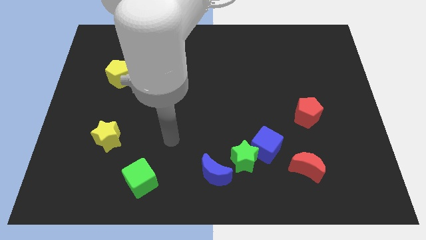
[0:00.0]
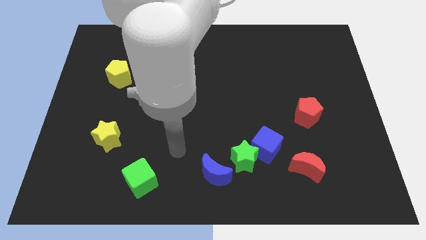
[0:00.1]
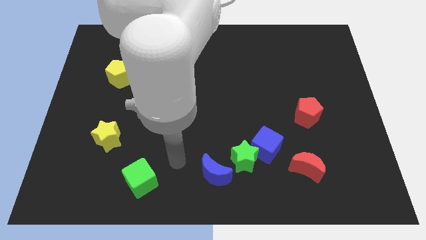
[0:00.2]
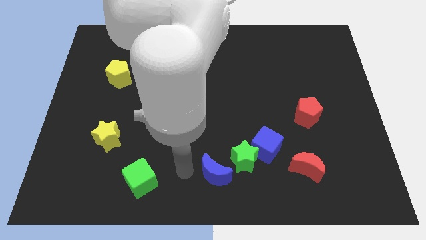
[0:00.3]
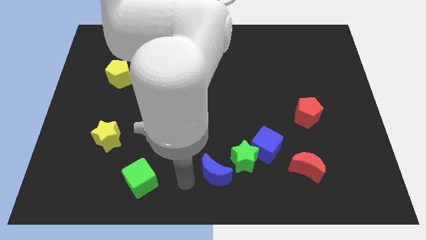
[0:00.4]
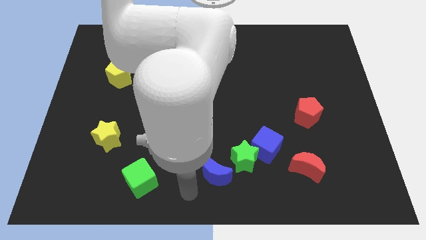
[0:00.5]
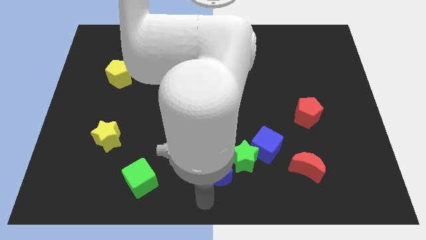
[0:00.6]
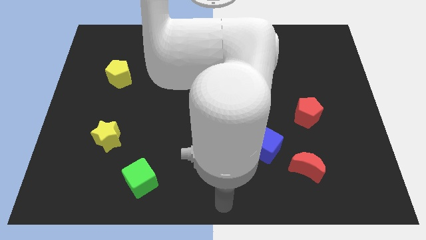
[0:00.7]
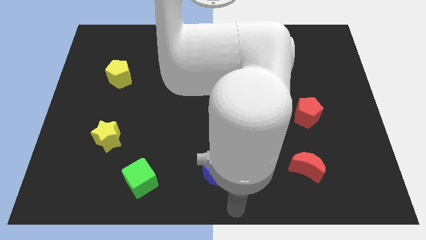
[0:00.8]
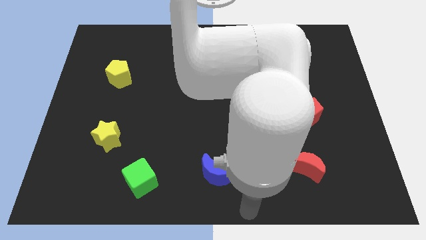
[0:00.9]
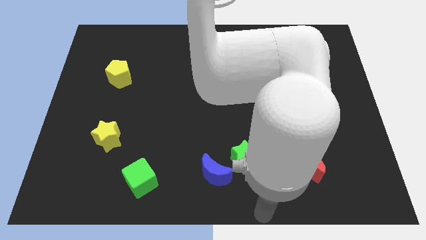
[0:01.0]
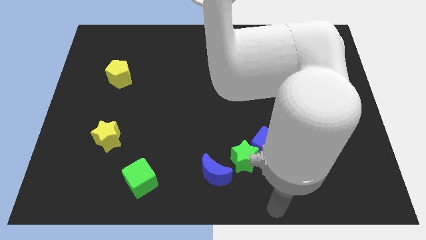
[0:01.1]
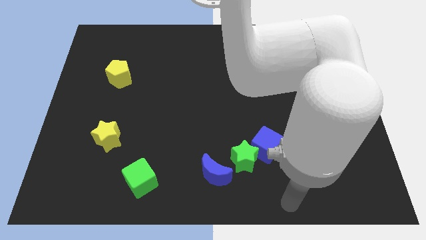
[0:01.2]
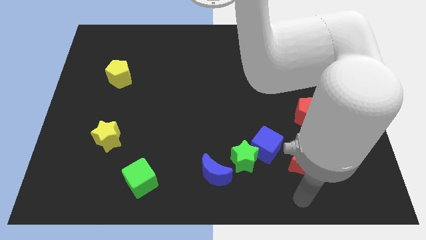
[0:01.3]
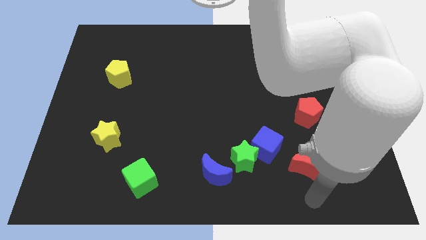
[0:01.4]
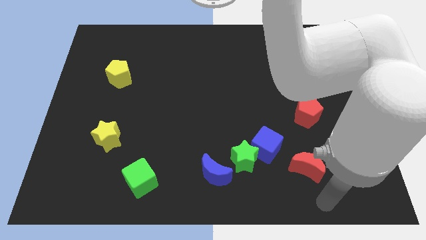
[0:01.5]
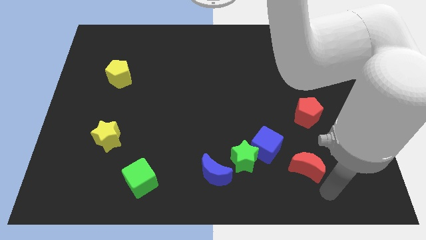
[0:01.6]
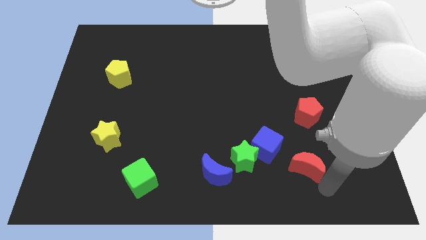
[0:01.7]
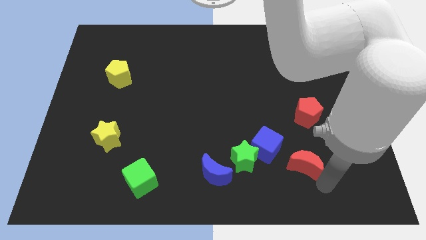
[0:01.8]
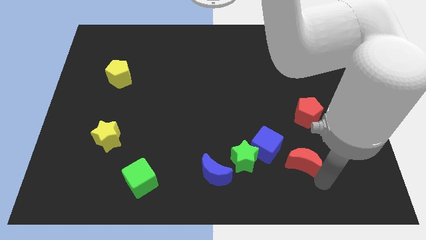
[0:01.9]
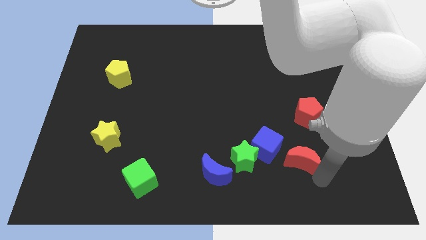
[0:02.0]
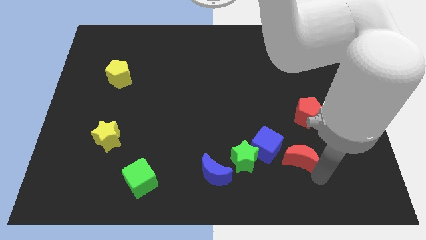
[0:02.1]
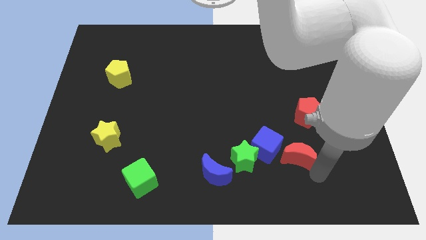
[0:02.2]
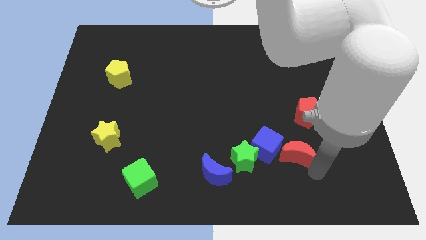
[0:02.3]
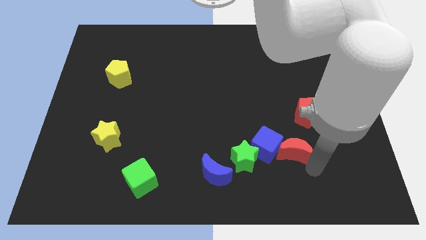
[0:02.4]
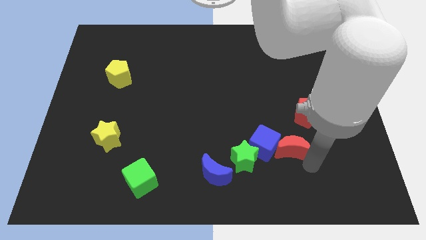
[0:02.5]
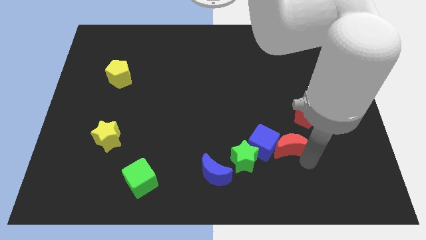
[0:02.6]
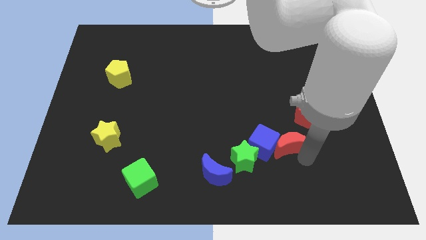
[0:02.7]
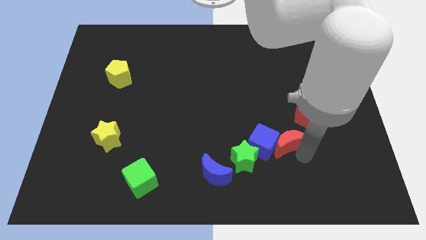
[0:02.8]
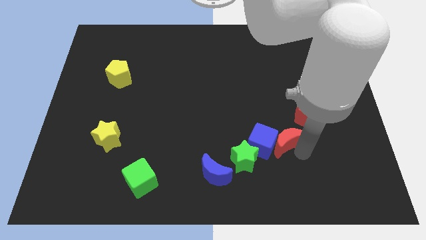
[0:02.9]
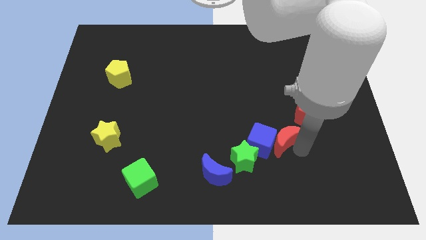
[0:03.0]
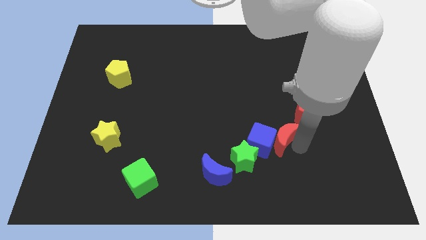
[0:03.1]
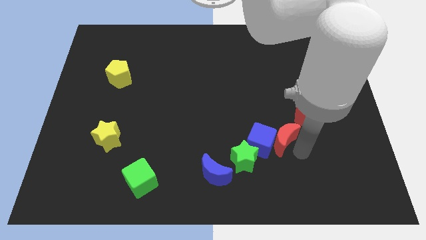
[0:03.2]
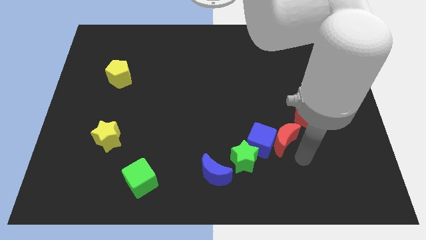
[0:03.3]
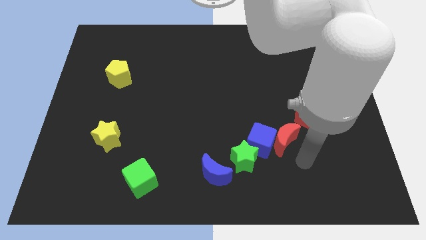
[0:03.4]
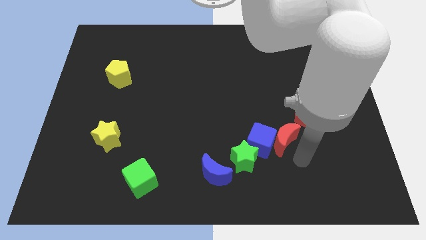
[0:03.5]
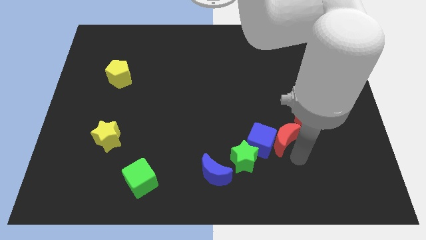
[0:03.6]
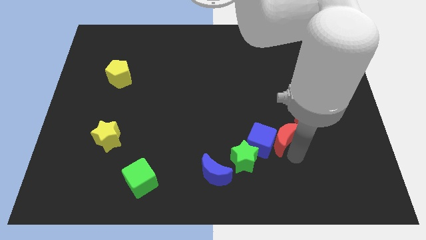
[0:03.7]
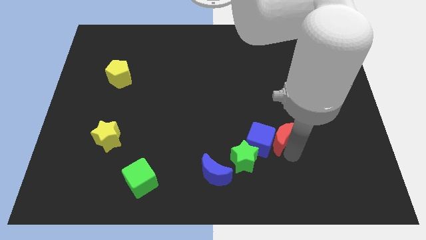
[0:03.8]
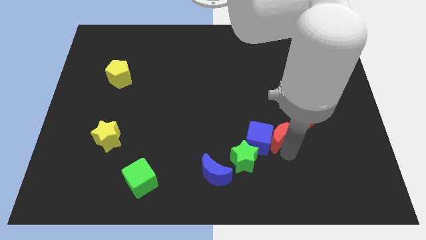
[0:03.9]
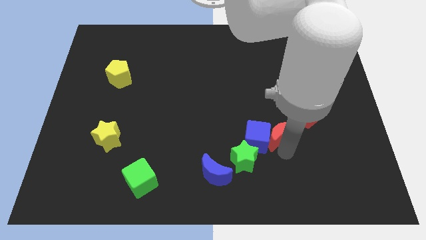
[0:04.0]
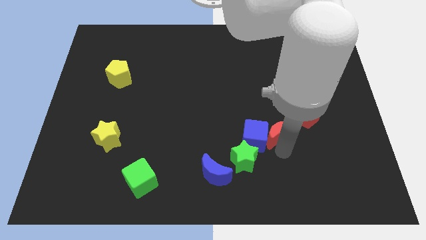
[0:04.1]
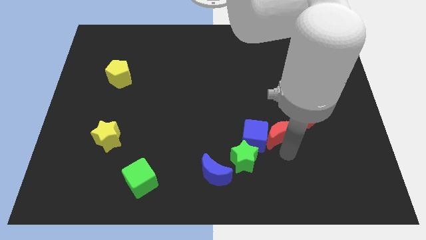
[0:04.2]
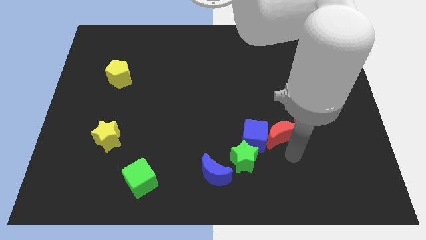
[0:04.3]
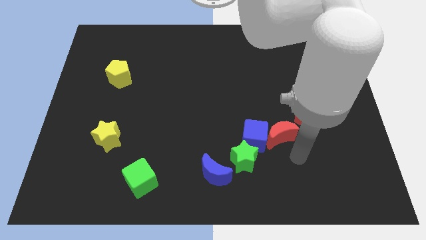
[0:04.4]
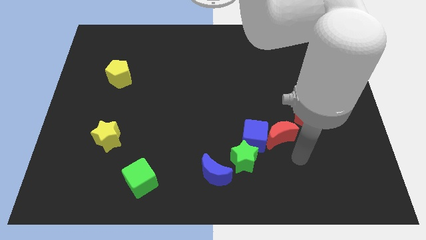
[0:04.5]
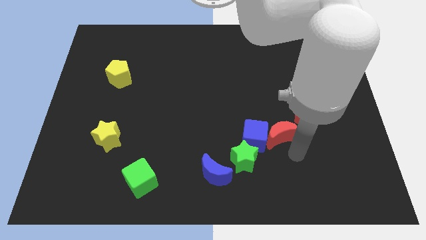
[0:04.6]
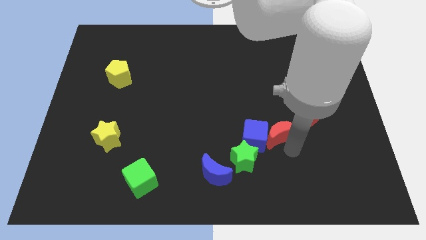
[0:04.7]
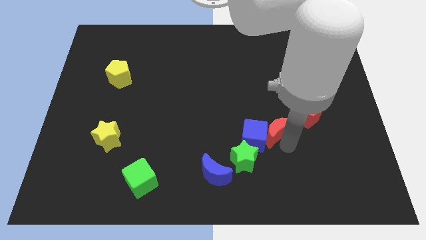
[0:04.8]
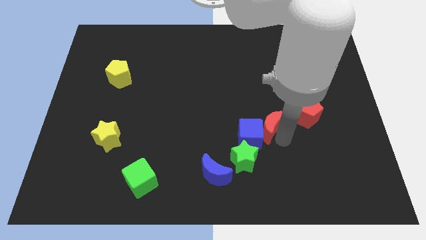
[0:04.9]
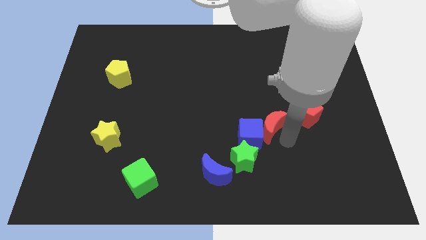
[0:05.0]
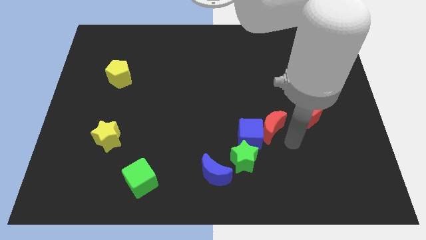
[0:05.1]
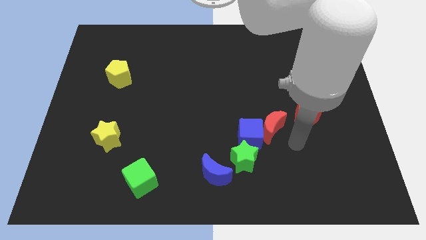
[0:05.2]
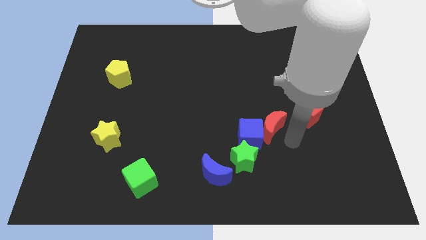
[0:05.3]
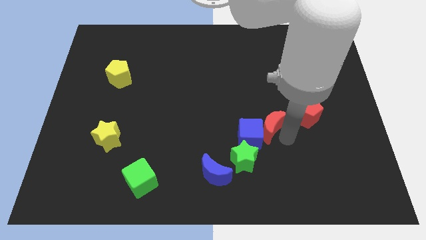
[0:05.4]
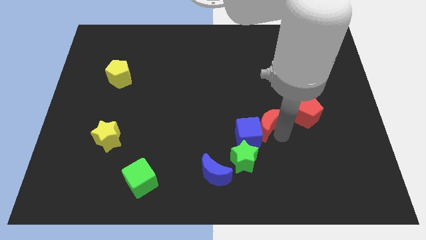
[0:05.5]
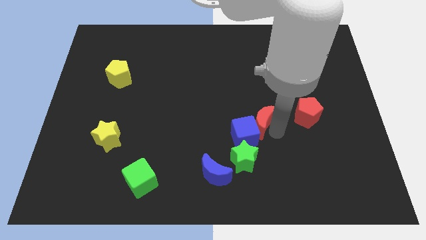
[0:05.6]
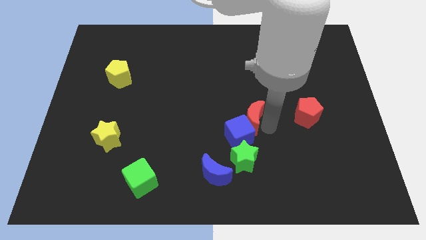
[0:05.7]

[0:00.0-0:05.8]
put the red moon to the center of the board
